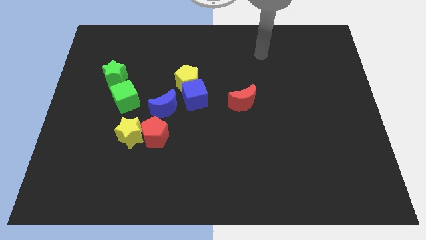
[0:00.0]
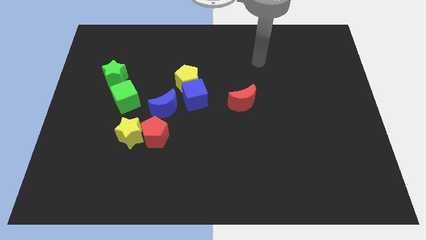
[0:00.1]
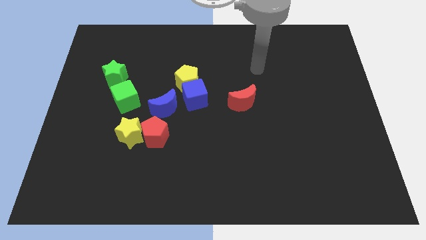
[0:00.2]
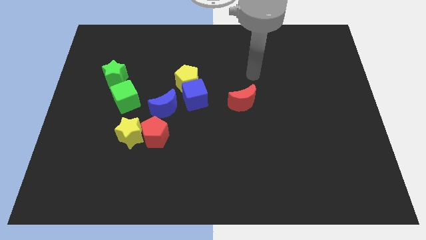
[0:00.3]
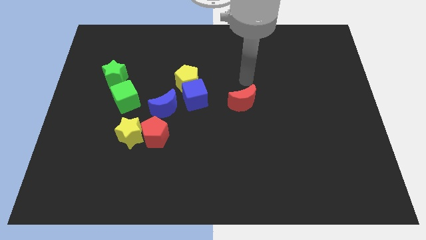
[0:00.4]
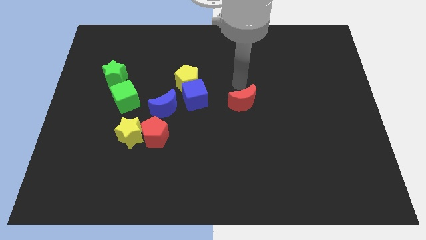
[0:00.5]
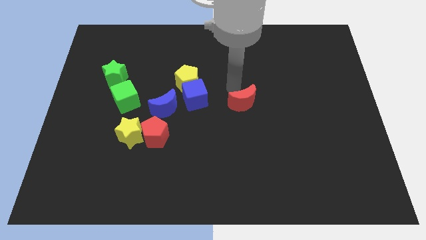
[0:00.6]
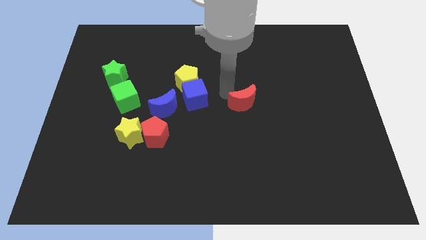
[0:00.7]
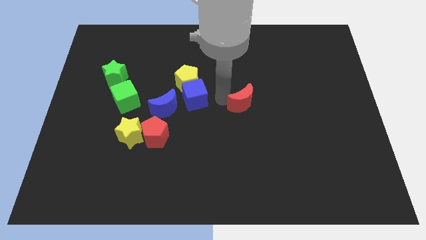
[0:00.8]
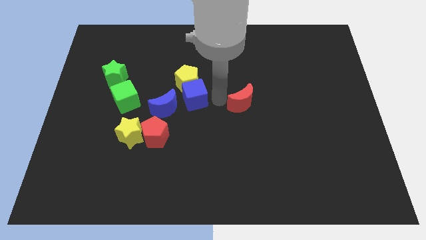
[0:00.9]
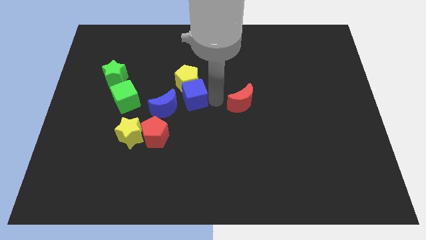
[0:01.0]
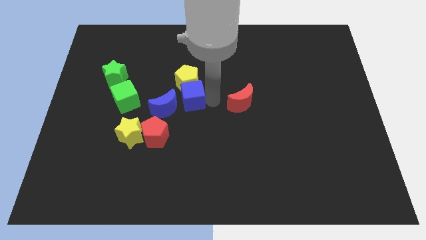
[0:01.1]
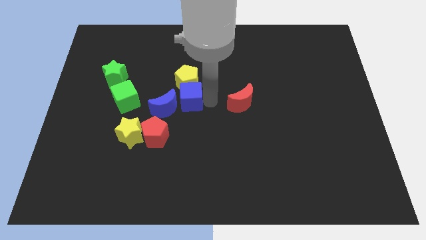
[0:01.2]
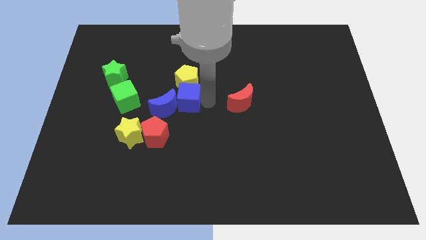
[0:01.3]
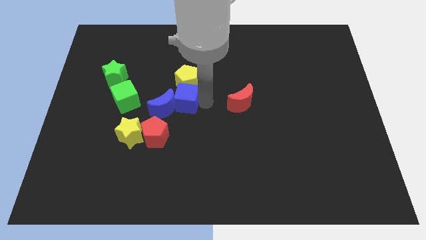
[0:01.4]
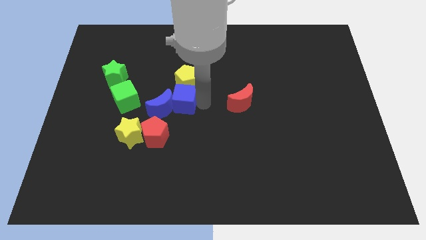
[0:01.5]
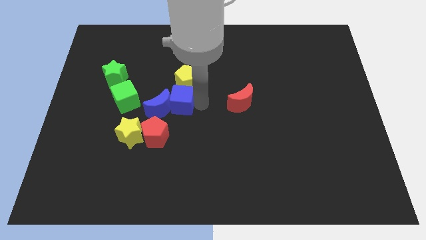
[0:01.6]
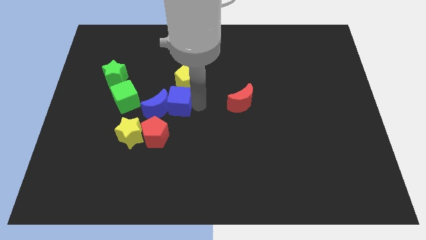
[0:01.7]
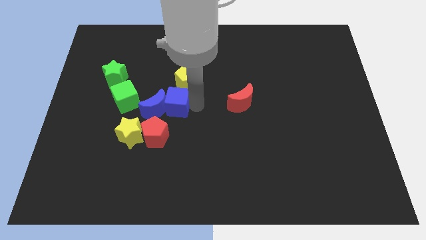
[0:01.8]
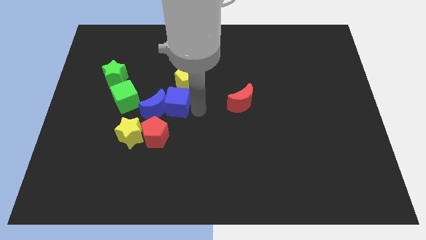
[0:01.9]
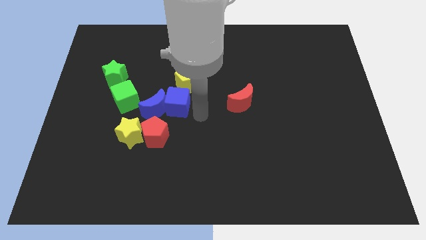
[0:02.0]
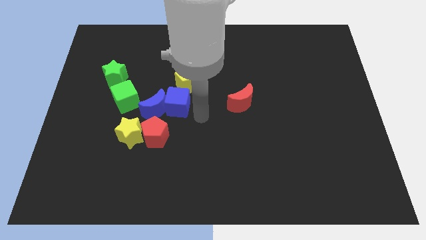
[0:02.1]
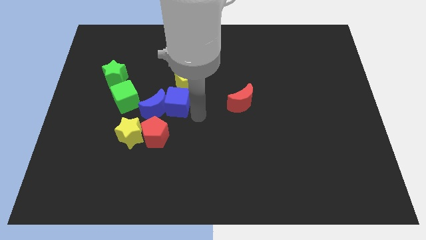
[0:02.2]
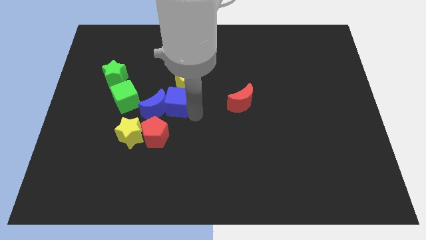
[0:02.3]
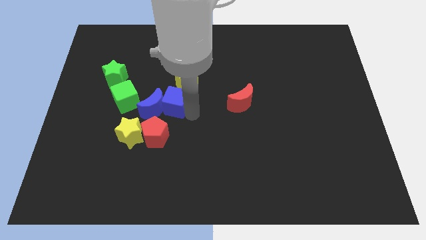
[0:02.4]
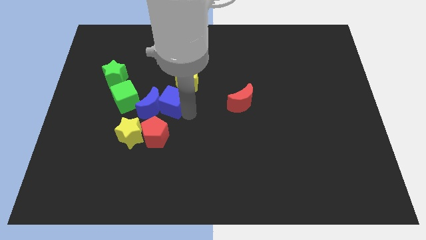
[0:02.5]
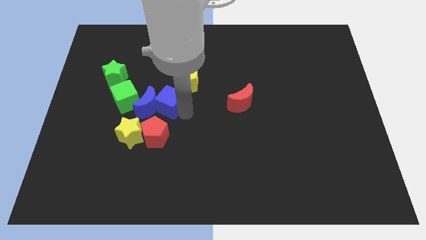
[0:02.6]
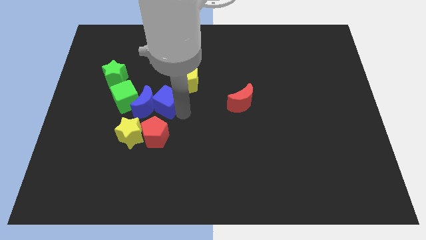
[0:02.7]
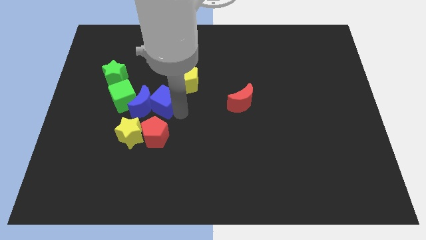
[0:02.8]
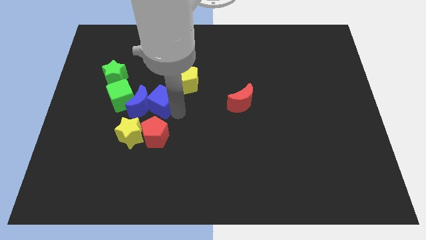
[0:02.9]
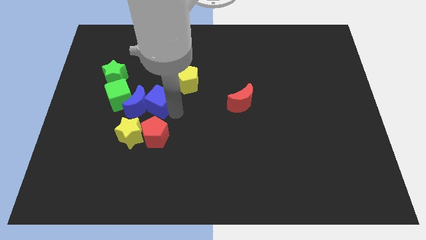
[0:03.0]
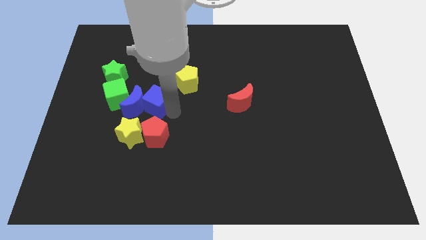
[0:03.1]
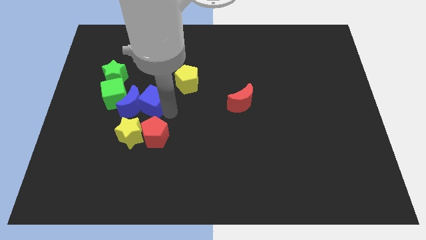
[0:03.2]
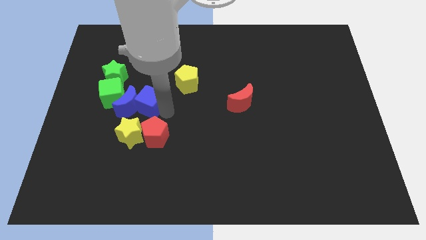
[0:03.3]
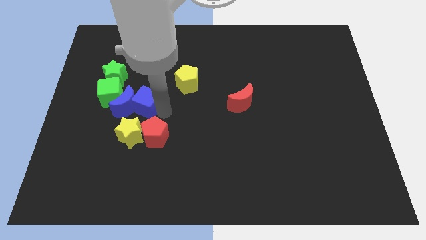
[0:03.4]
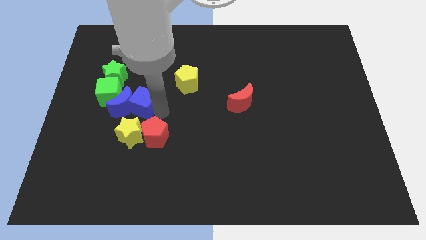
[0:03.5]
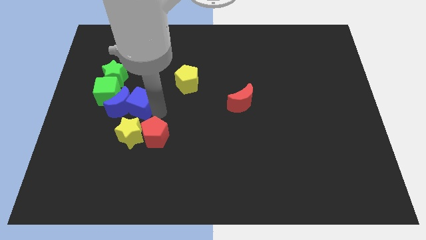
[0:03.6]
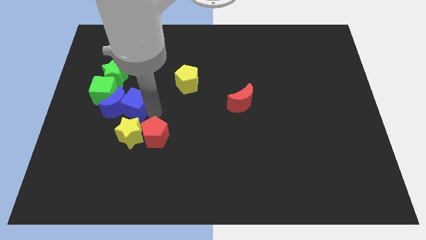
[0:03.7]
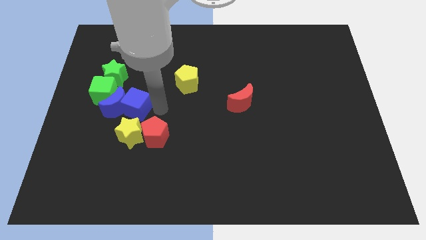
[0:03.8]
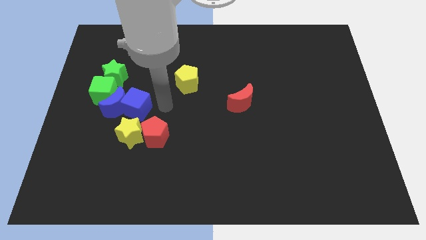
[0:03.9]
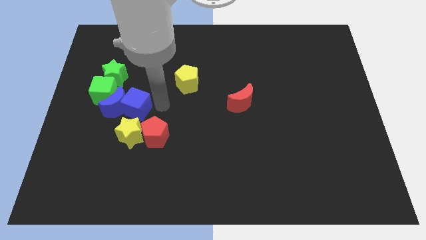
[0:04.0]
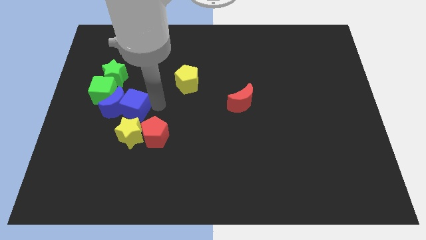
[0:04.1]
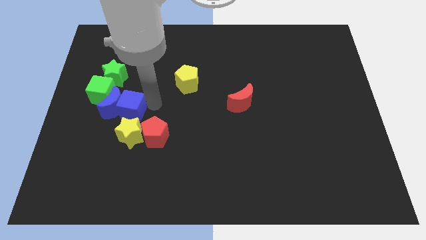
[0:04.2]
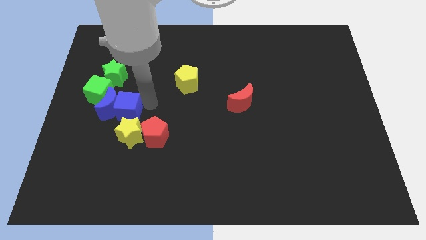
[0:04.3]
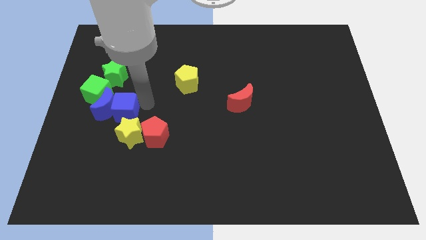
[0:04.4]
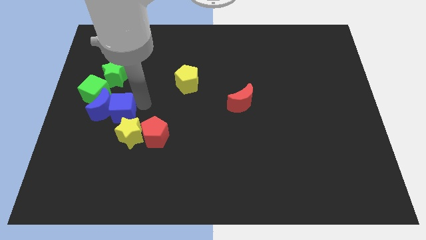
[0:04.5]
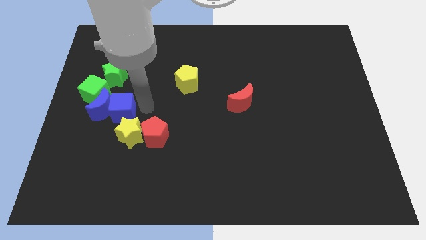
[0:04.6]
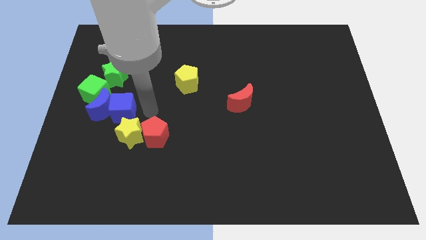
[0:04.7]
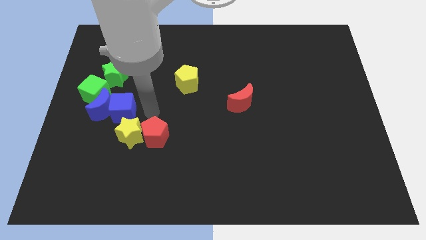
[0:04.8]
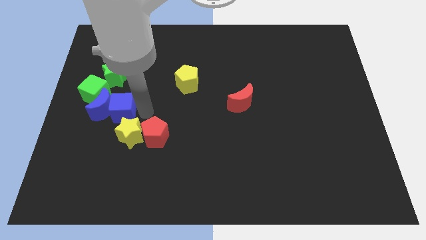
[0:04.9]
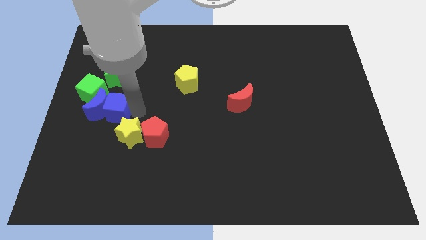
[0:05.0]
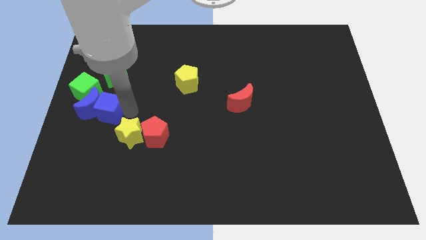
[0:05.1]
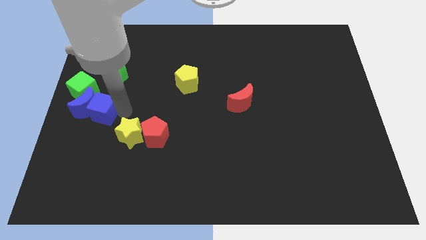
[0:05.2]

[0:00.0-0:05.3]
put the blue cube to the center left

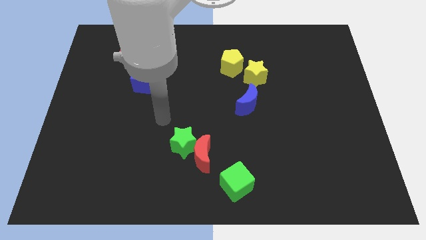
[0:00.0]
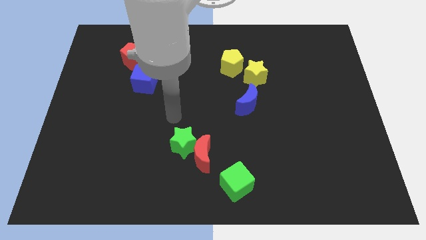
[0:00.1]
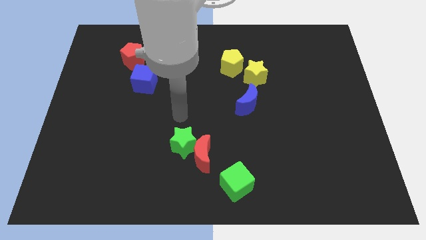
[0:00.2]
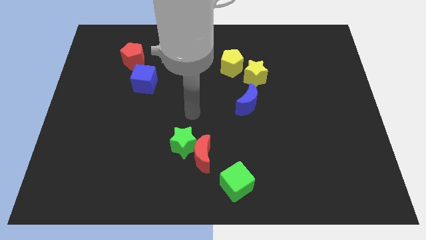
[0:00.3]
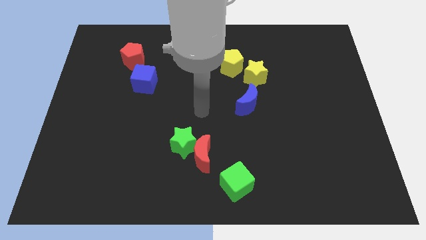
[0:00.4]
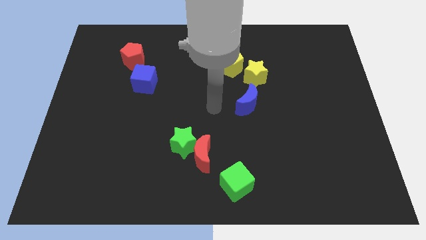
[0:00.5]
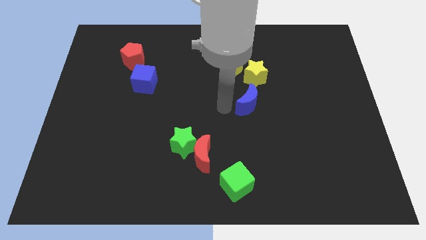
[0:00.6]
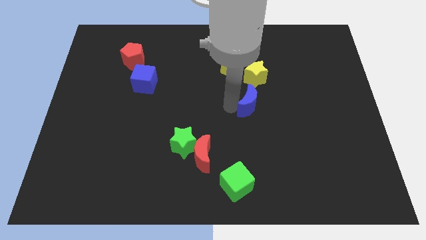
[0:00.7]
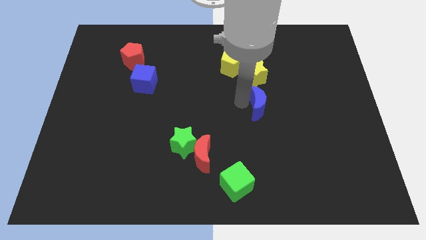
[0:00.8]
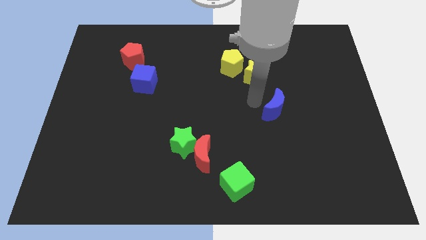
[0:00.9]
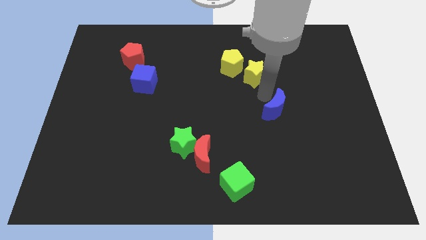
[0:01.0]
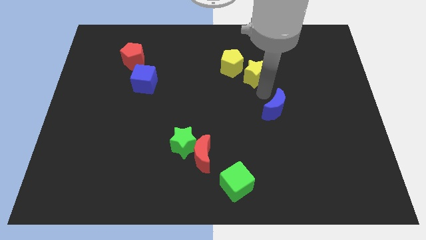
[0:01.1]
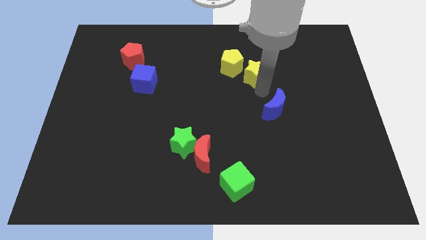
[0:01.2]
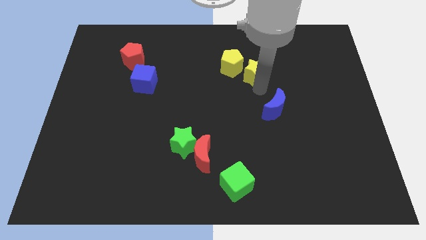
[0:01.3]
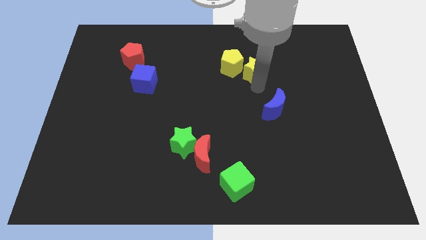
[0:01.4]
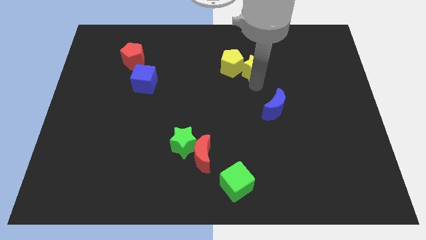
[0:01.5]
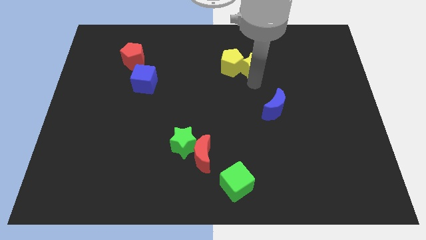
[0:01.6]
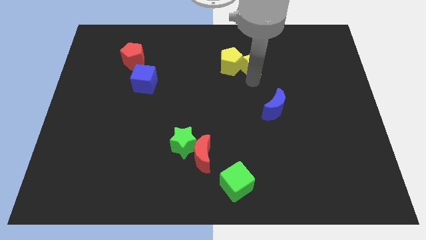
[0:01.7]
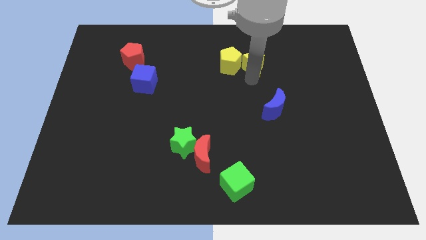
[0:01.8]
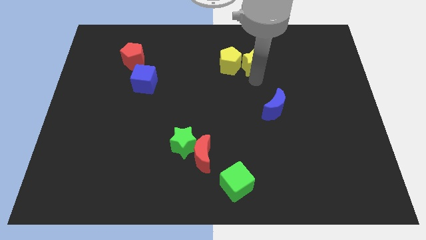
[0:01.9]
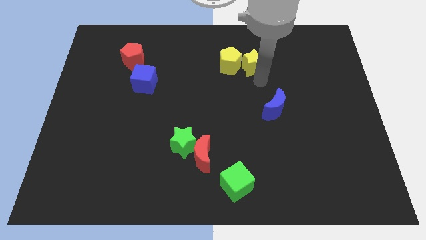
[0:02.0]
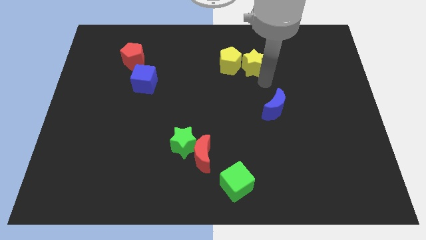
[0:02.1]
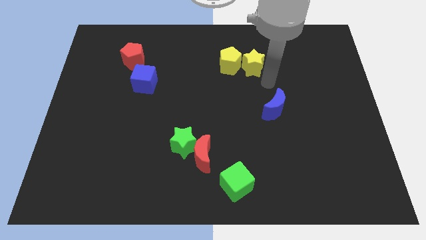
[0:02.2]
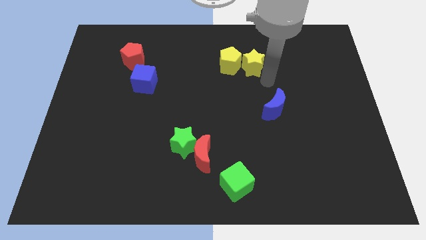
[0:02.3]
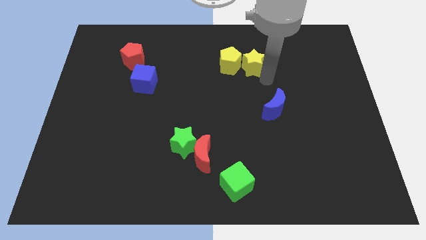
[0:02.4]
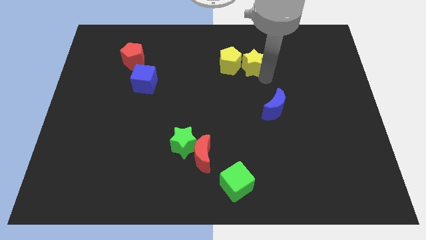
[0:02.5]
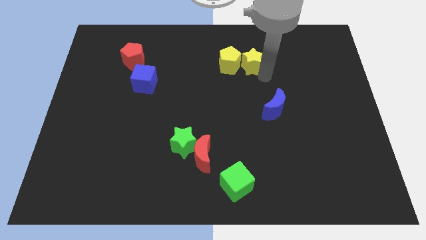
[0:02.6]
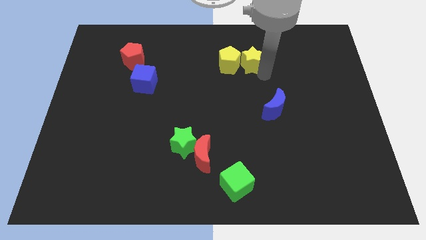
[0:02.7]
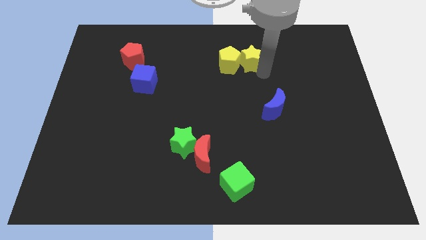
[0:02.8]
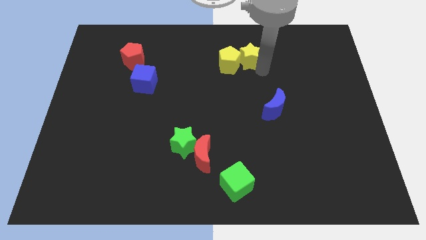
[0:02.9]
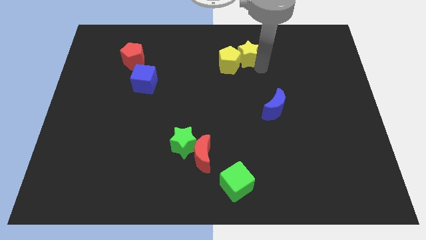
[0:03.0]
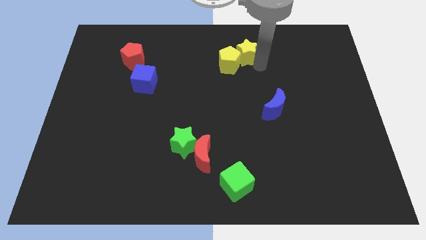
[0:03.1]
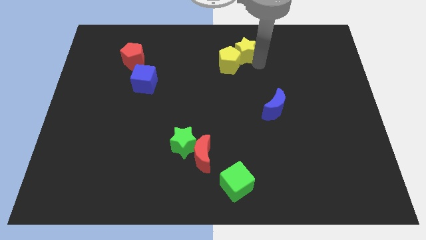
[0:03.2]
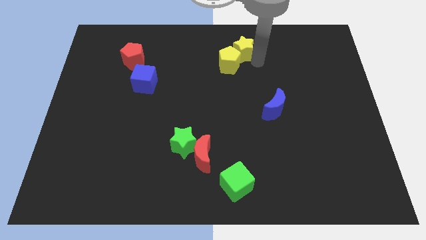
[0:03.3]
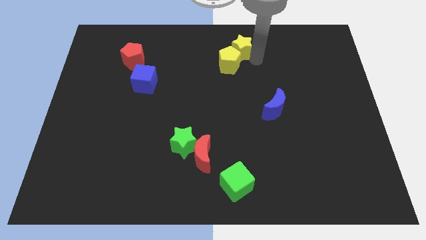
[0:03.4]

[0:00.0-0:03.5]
push the yellow star to the towards your base
